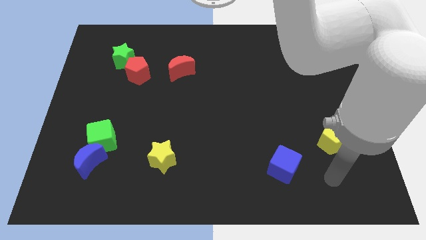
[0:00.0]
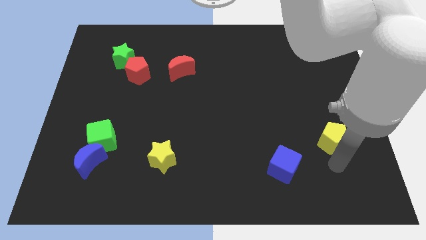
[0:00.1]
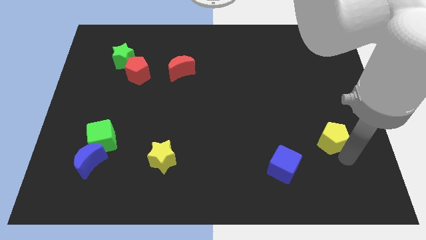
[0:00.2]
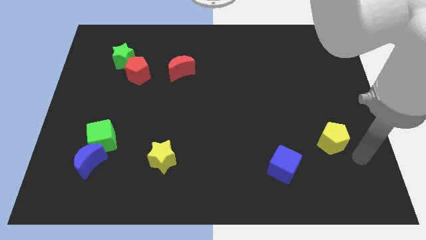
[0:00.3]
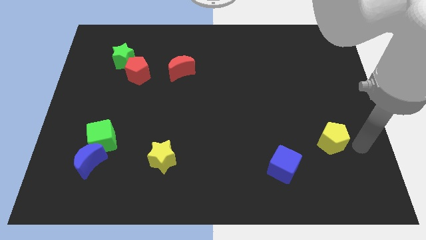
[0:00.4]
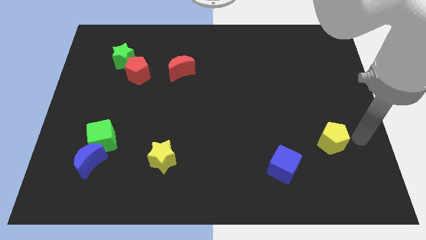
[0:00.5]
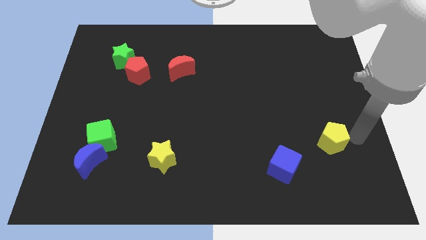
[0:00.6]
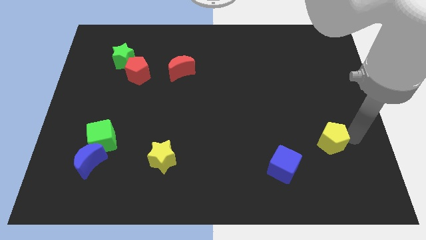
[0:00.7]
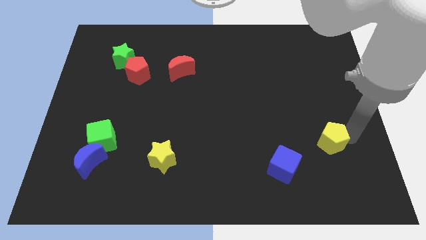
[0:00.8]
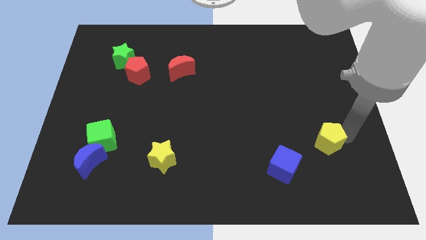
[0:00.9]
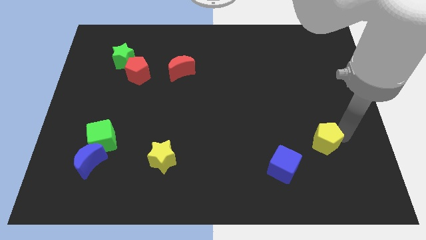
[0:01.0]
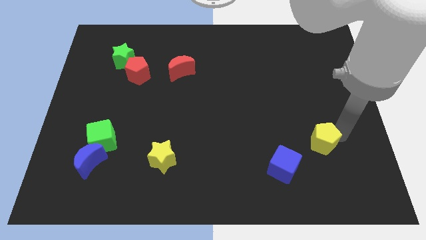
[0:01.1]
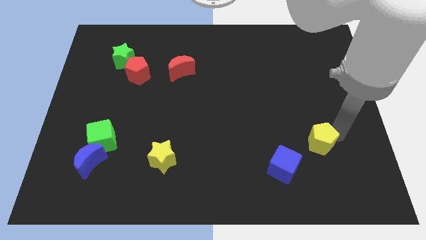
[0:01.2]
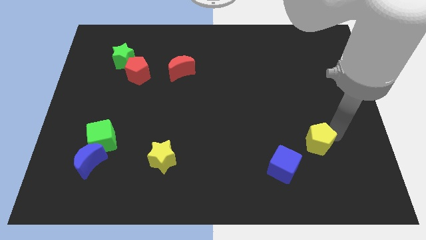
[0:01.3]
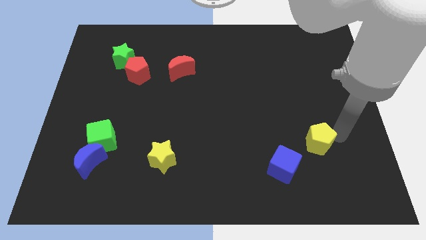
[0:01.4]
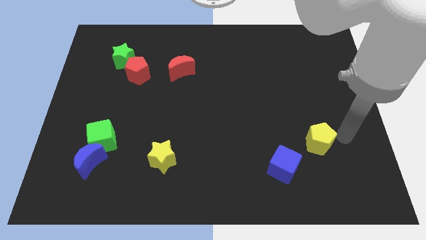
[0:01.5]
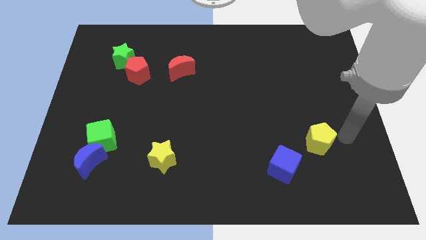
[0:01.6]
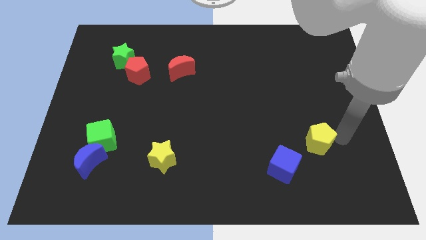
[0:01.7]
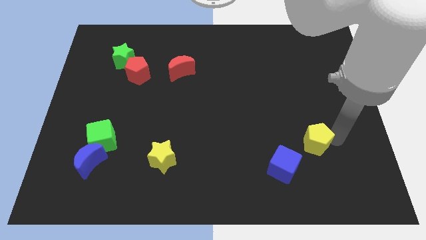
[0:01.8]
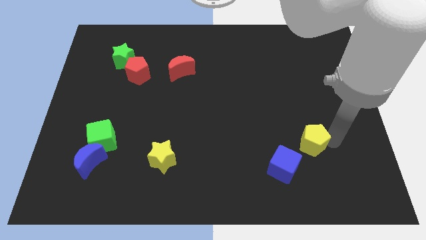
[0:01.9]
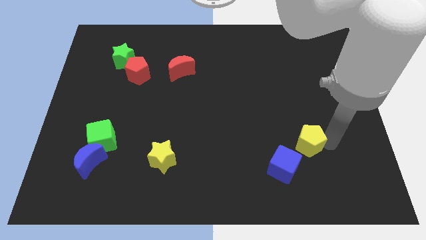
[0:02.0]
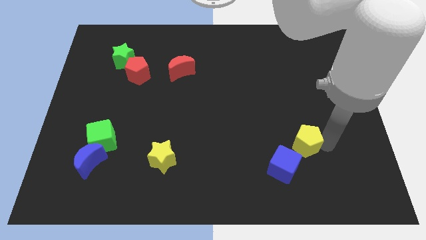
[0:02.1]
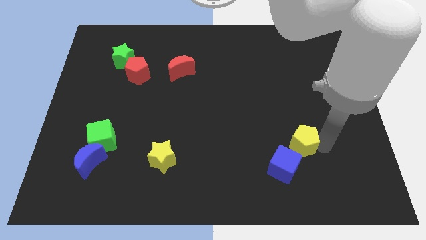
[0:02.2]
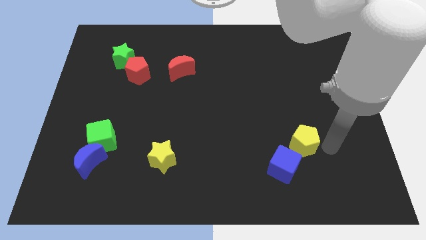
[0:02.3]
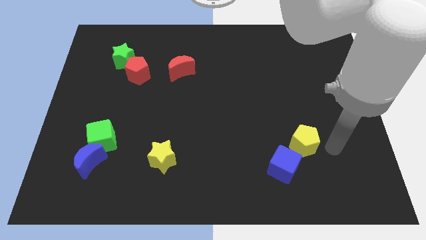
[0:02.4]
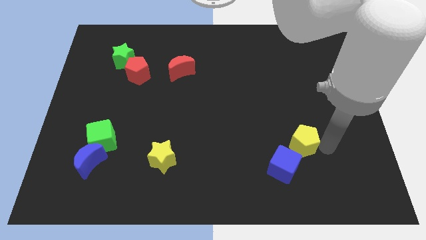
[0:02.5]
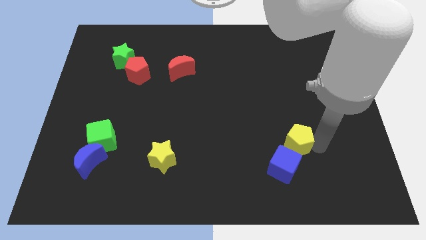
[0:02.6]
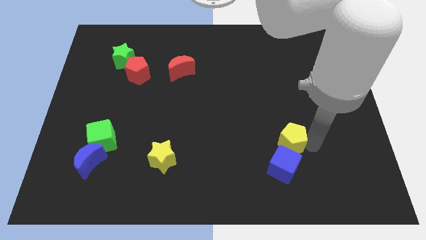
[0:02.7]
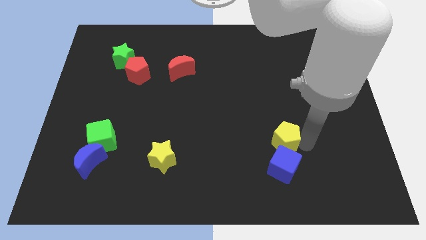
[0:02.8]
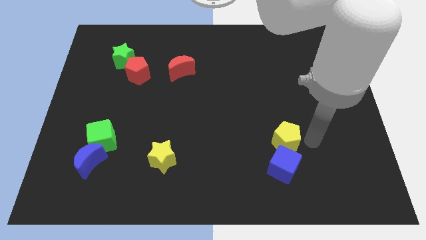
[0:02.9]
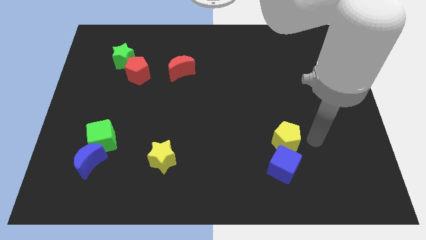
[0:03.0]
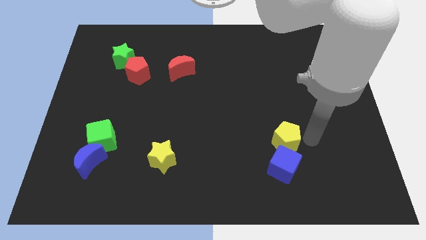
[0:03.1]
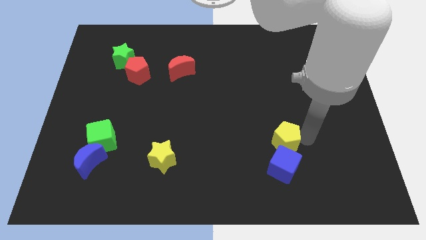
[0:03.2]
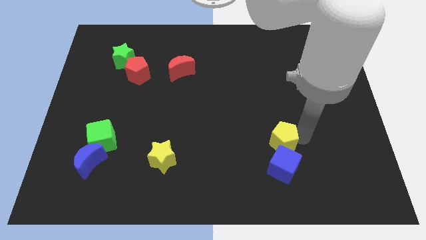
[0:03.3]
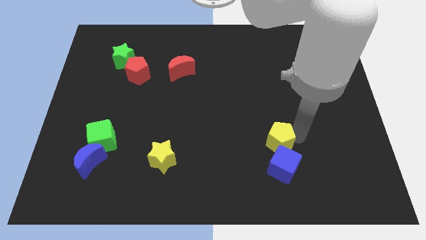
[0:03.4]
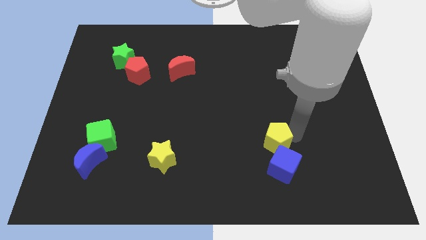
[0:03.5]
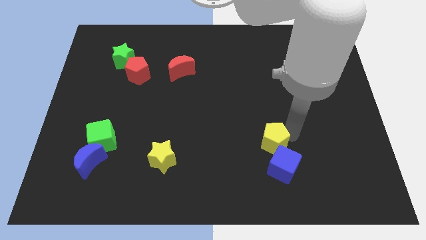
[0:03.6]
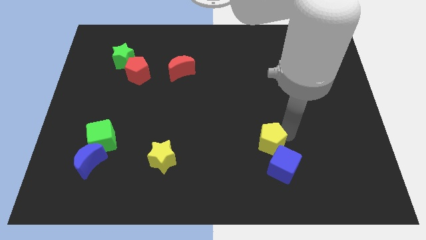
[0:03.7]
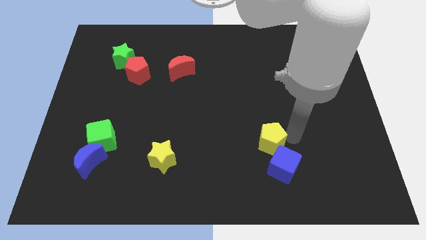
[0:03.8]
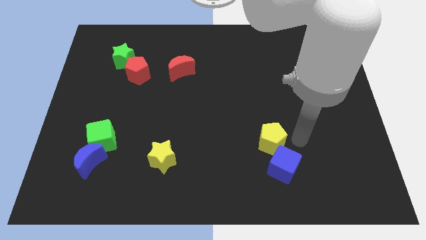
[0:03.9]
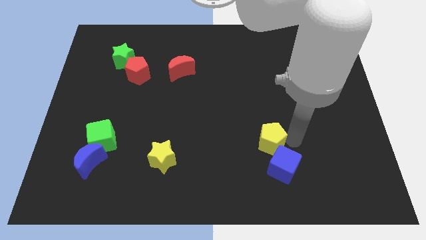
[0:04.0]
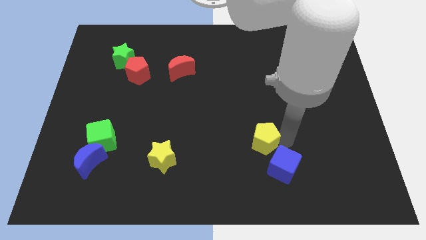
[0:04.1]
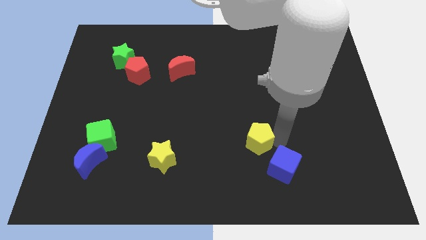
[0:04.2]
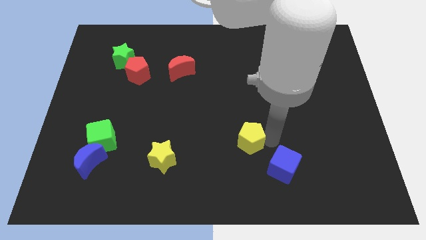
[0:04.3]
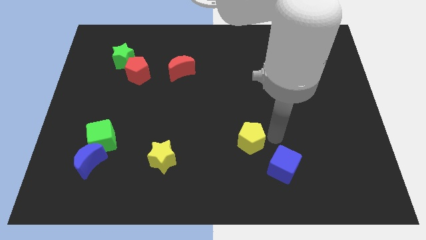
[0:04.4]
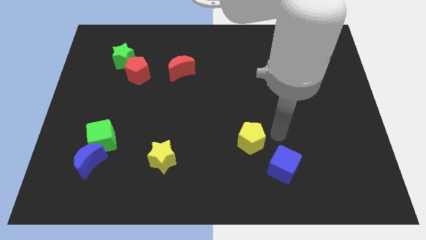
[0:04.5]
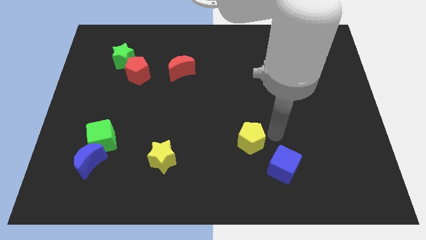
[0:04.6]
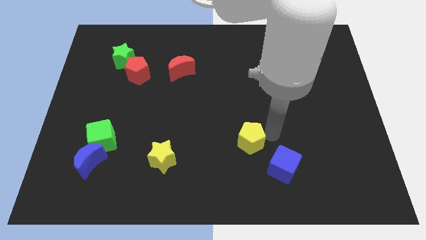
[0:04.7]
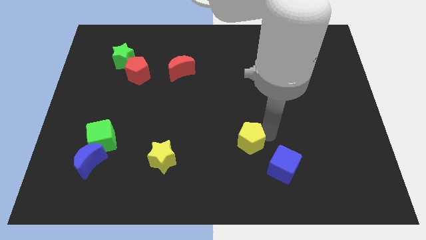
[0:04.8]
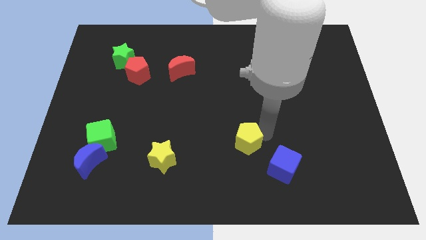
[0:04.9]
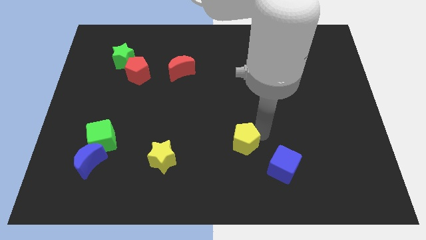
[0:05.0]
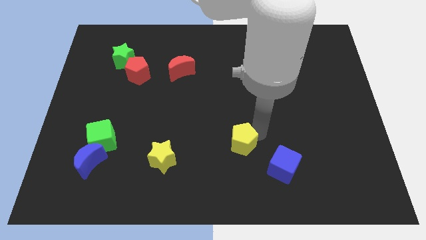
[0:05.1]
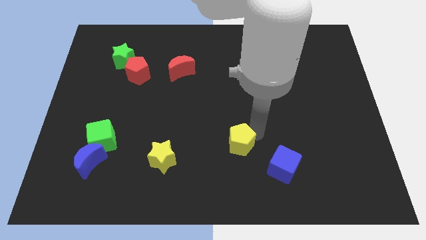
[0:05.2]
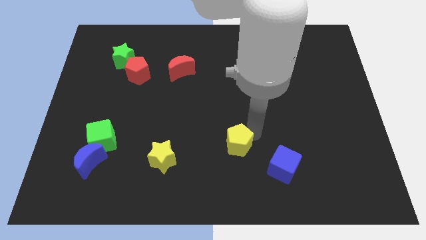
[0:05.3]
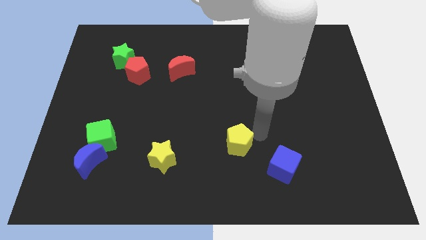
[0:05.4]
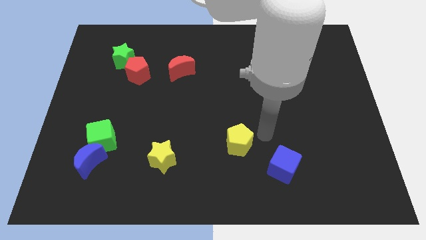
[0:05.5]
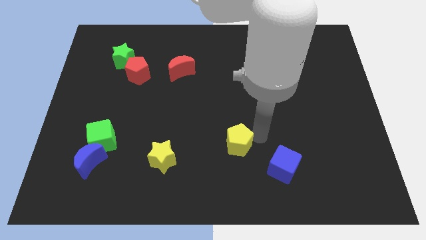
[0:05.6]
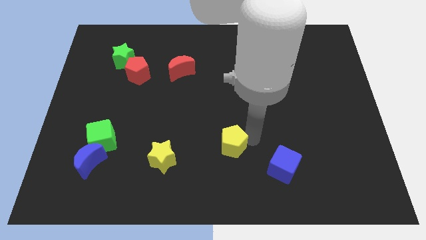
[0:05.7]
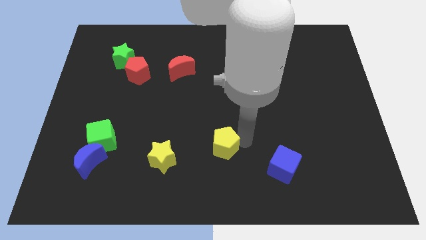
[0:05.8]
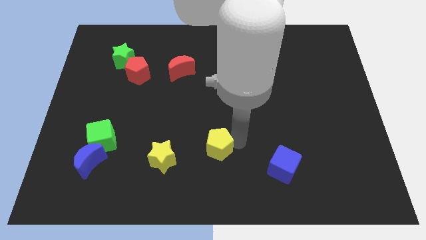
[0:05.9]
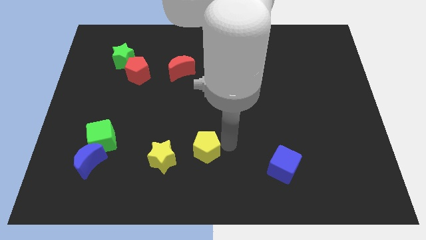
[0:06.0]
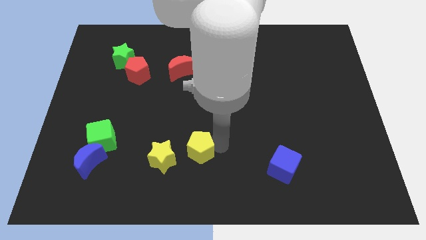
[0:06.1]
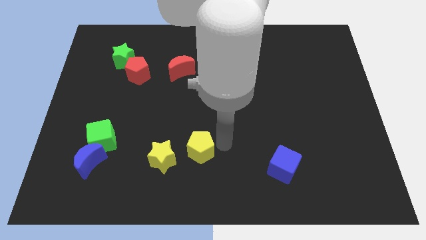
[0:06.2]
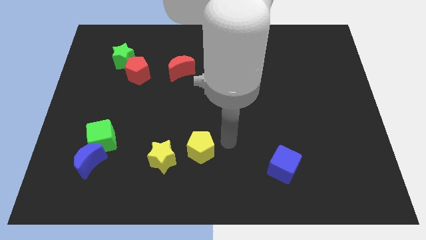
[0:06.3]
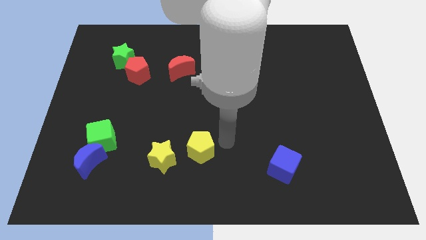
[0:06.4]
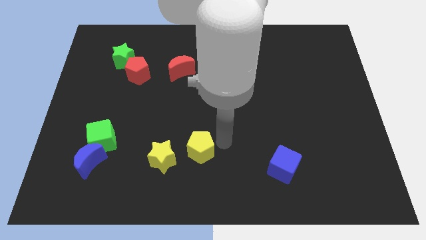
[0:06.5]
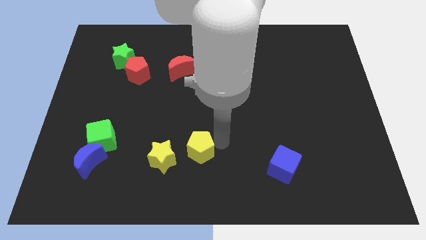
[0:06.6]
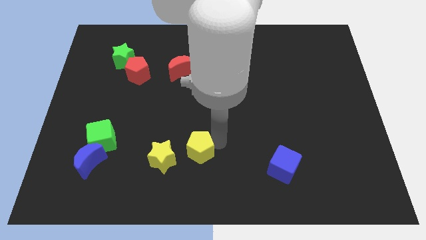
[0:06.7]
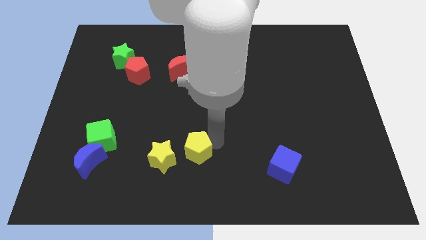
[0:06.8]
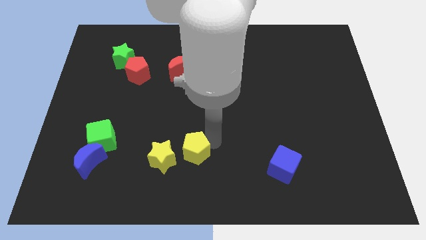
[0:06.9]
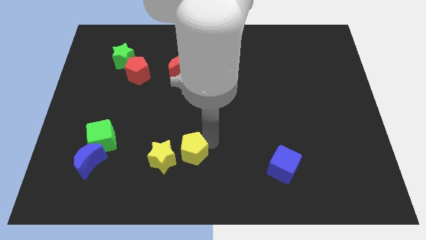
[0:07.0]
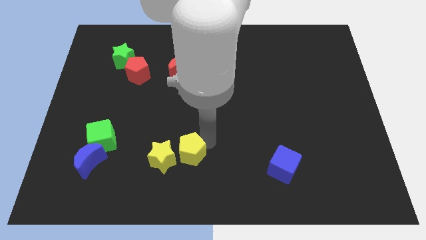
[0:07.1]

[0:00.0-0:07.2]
put the yellow pentagon towards the yellow star
